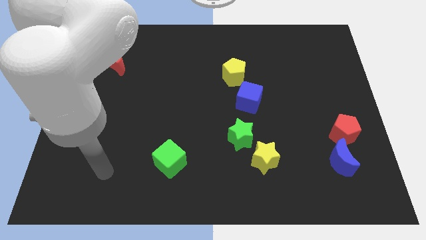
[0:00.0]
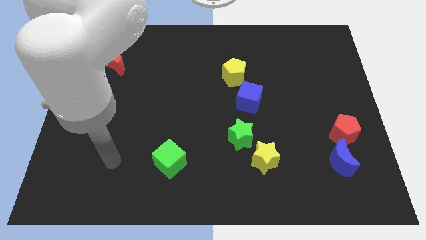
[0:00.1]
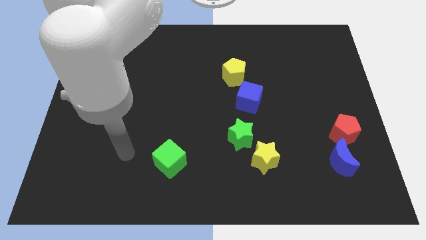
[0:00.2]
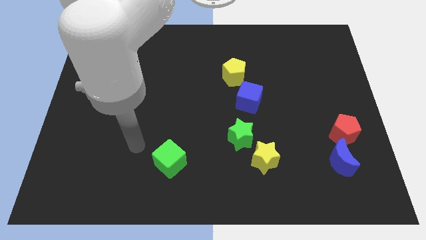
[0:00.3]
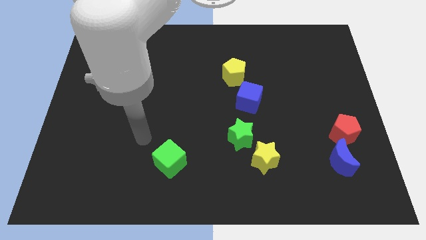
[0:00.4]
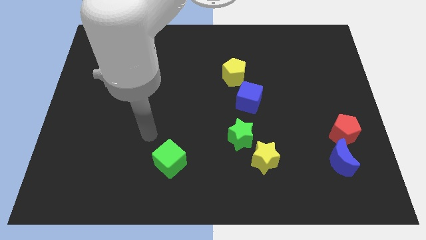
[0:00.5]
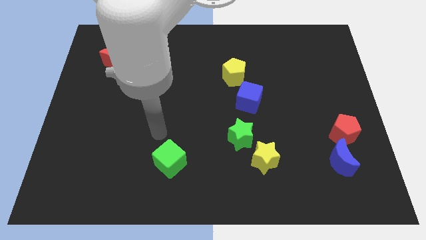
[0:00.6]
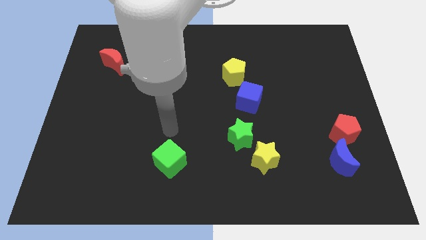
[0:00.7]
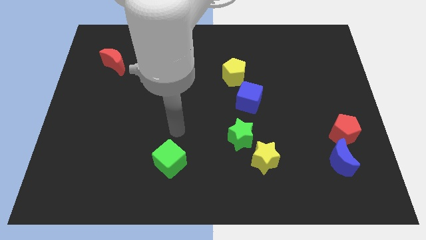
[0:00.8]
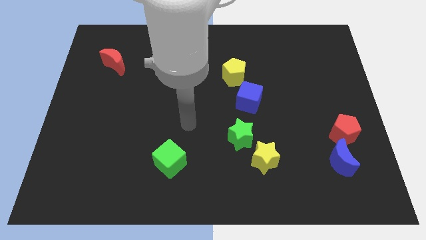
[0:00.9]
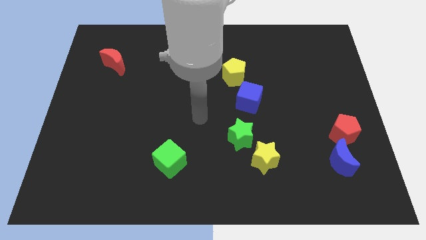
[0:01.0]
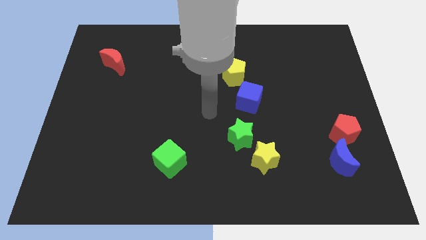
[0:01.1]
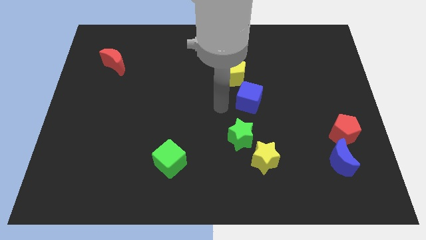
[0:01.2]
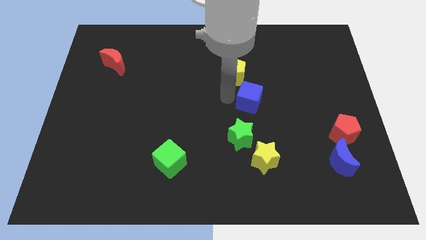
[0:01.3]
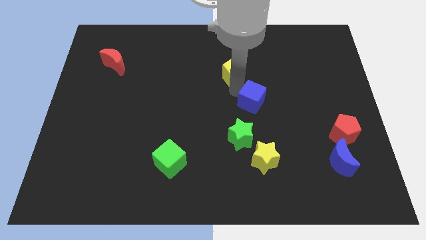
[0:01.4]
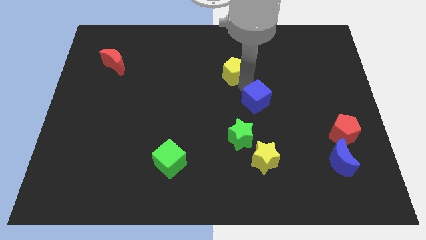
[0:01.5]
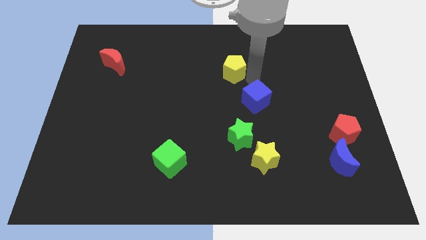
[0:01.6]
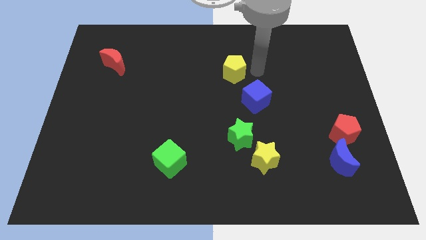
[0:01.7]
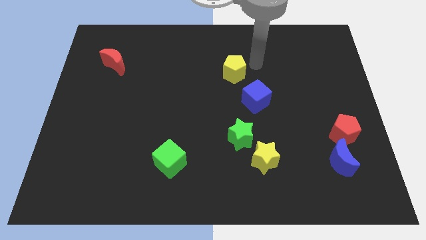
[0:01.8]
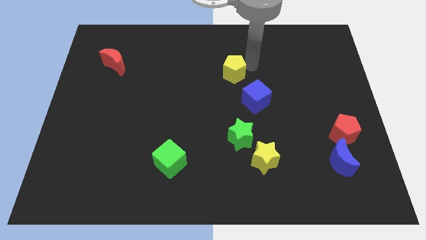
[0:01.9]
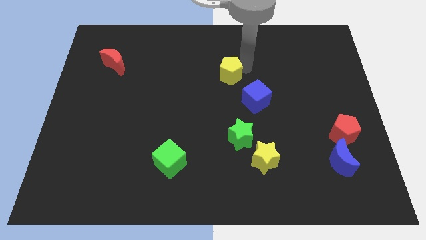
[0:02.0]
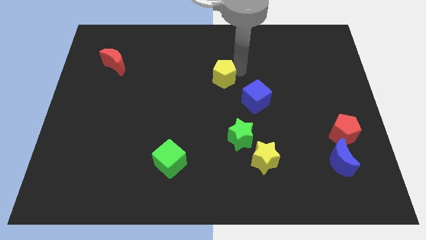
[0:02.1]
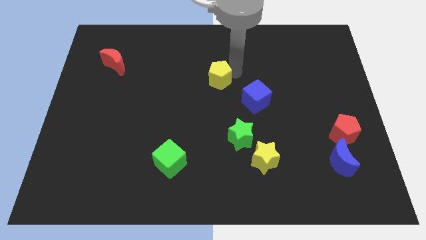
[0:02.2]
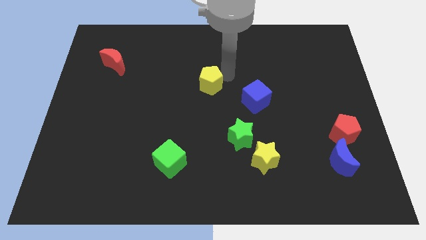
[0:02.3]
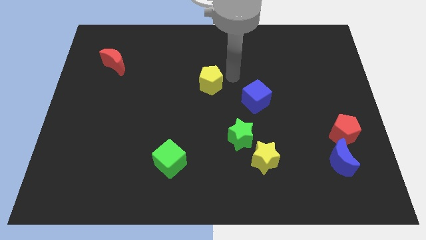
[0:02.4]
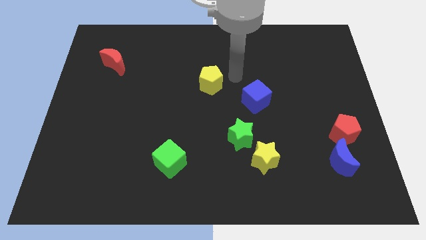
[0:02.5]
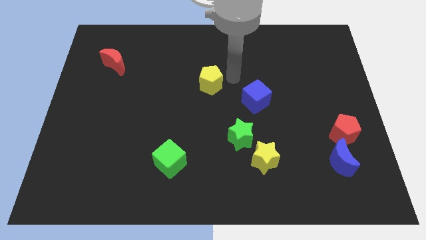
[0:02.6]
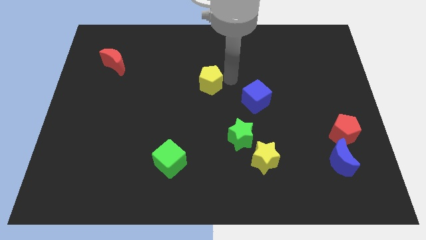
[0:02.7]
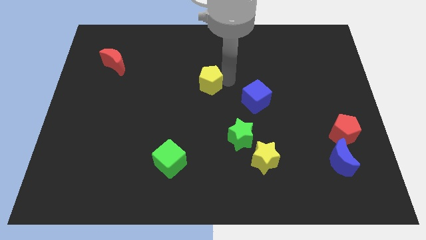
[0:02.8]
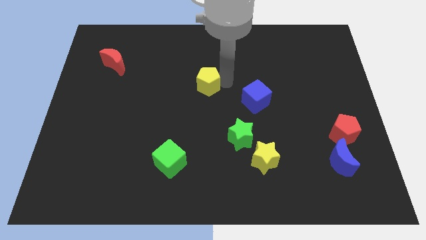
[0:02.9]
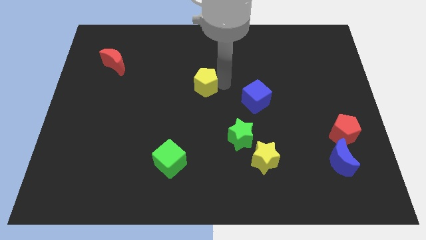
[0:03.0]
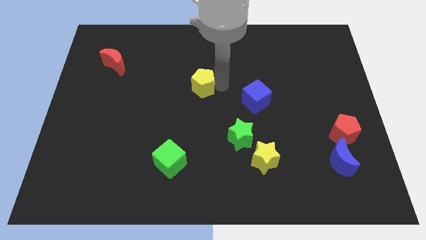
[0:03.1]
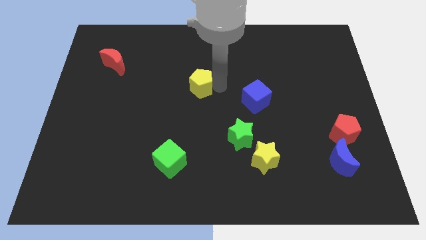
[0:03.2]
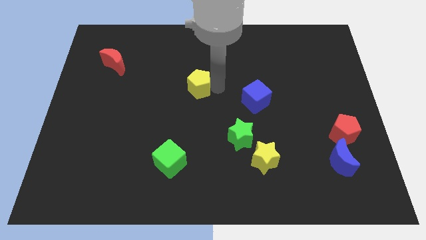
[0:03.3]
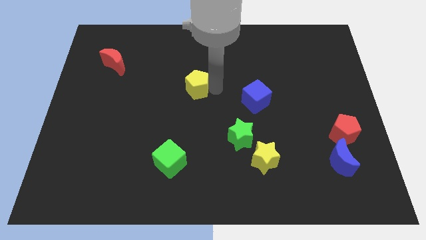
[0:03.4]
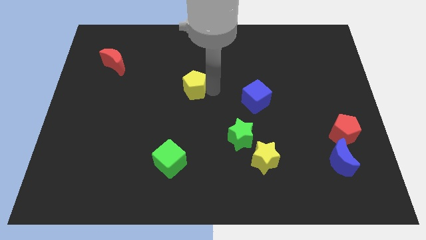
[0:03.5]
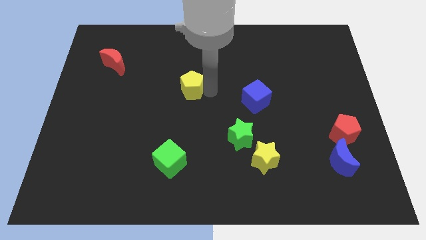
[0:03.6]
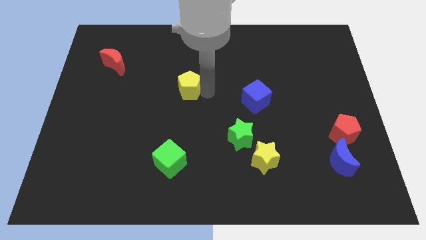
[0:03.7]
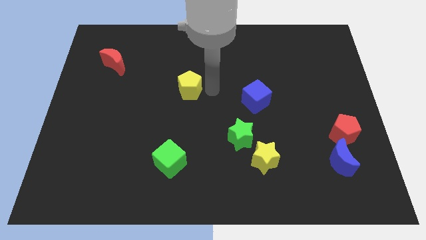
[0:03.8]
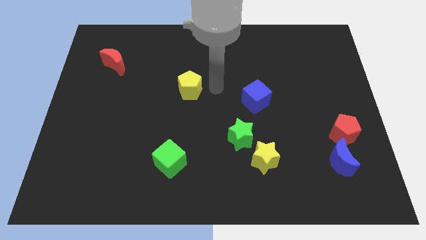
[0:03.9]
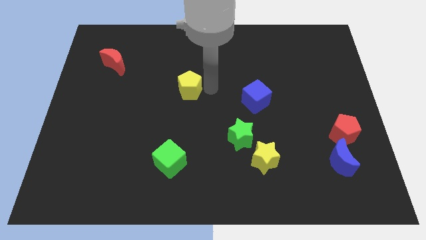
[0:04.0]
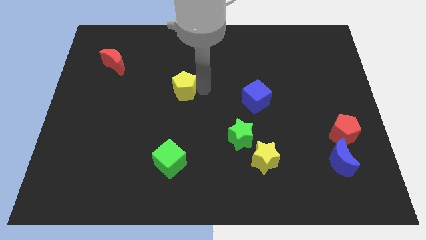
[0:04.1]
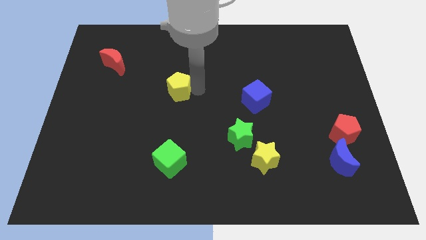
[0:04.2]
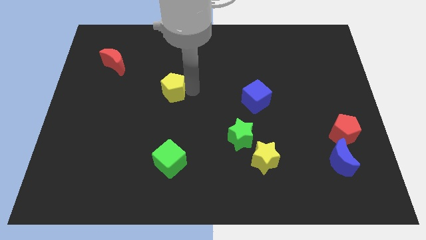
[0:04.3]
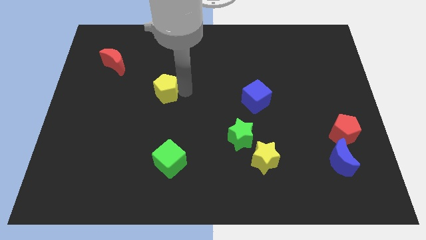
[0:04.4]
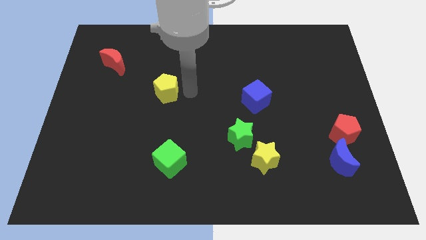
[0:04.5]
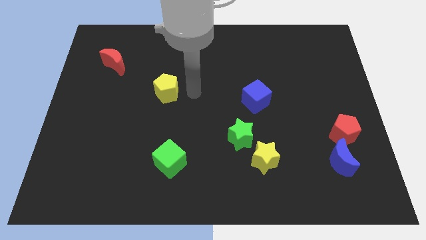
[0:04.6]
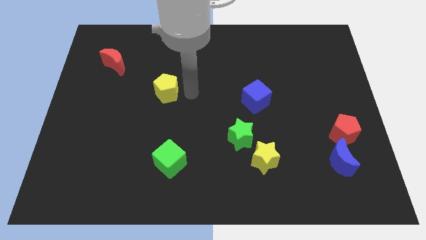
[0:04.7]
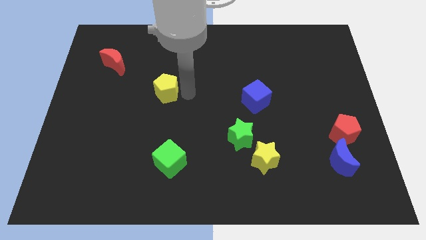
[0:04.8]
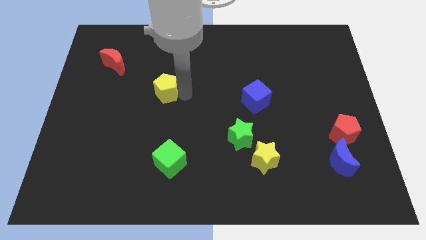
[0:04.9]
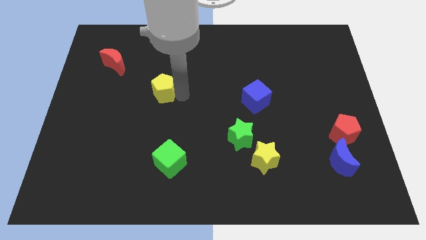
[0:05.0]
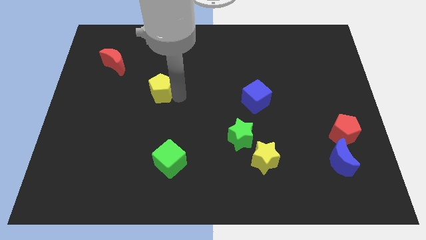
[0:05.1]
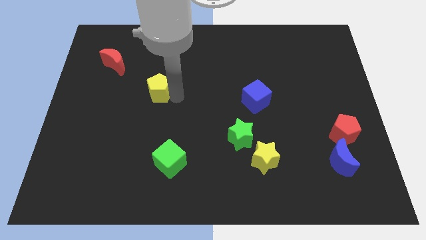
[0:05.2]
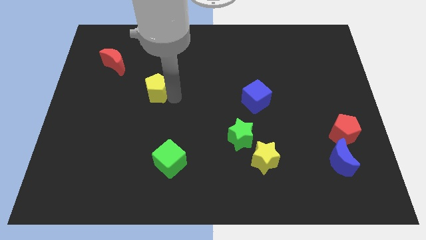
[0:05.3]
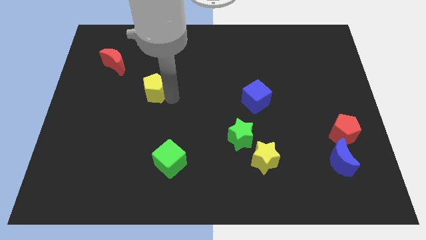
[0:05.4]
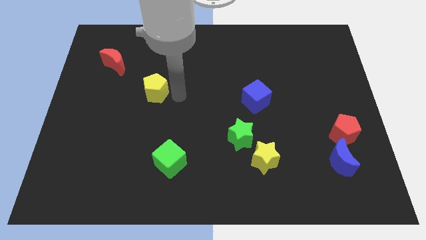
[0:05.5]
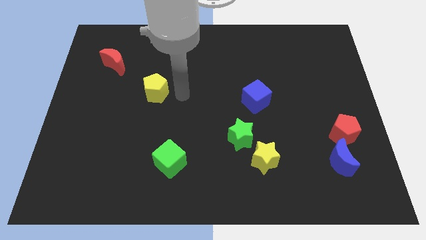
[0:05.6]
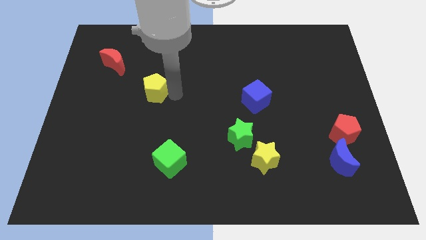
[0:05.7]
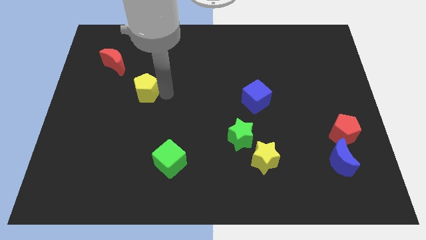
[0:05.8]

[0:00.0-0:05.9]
slide the yellow pentagon to the left

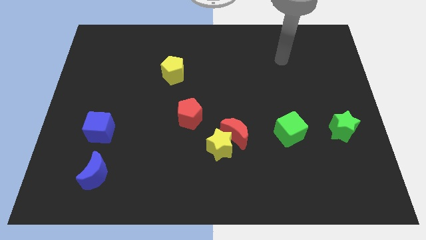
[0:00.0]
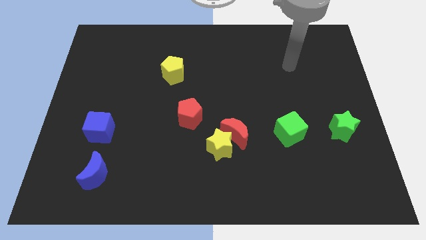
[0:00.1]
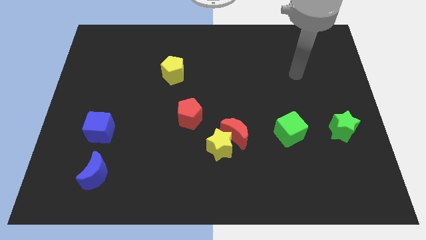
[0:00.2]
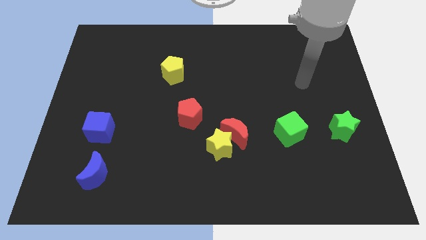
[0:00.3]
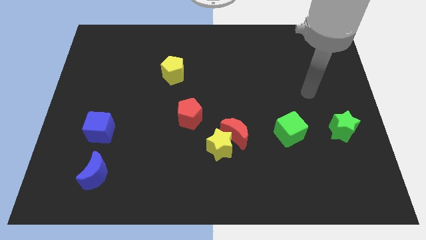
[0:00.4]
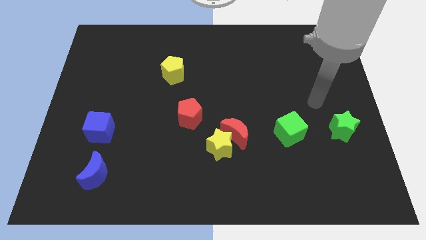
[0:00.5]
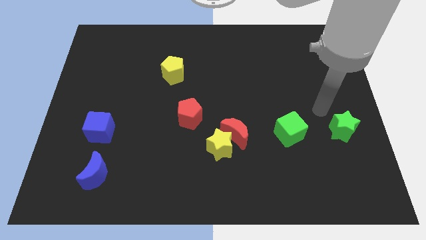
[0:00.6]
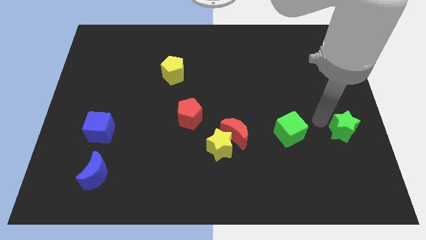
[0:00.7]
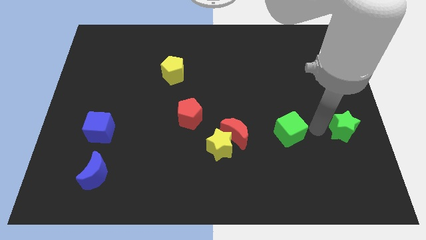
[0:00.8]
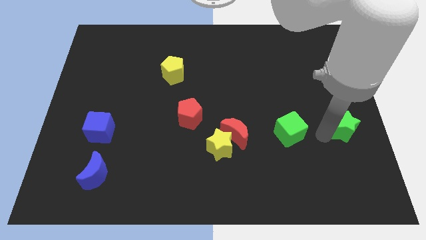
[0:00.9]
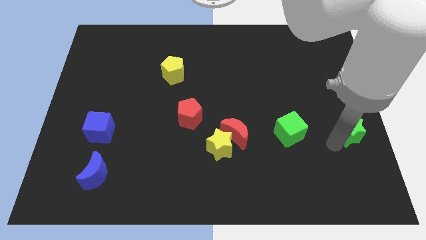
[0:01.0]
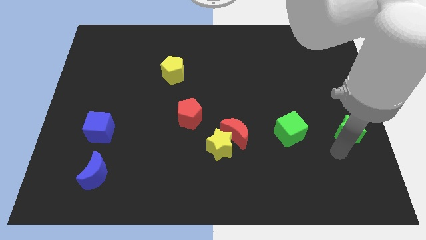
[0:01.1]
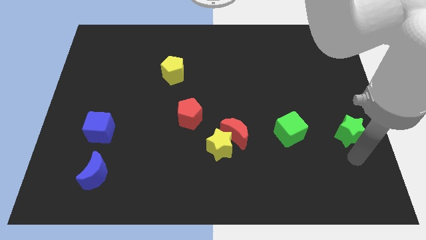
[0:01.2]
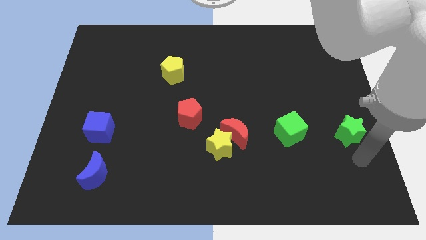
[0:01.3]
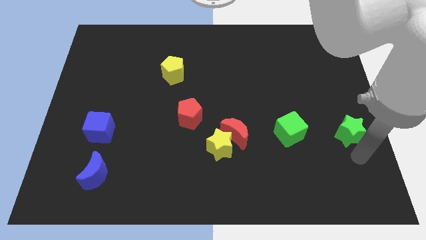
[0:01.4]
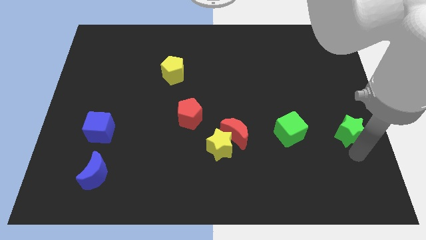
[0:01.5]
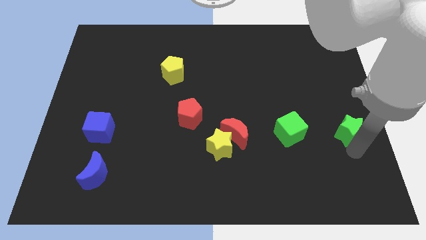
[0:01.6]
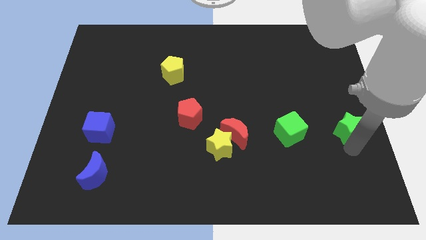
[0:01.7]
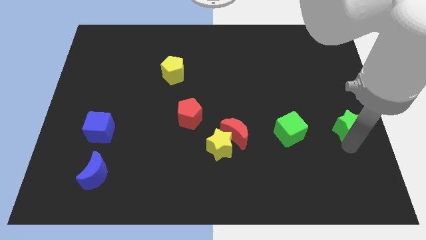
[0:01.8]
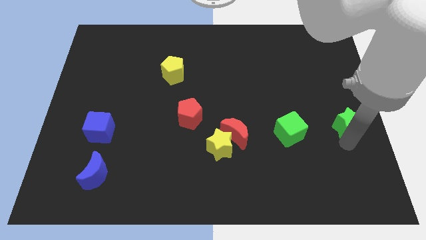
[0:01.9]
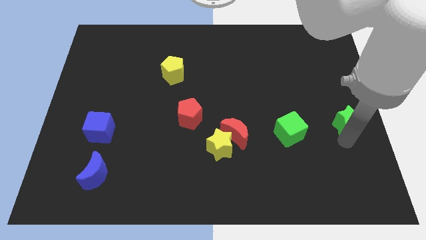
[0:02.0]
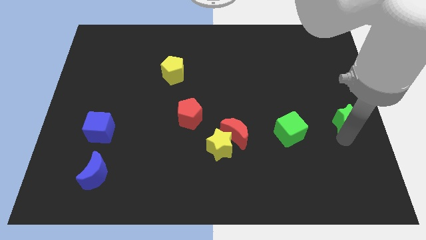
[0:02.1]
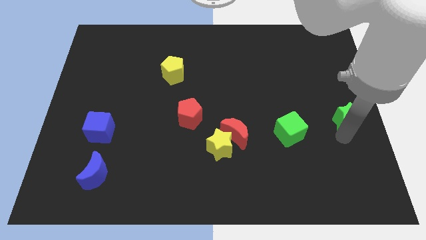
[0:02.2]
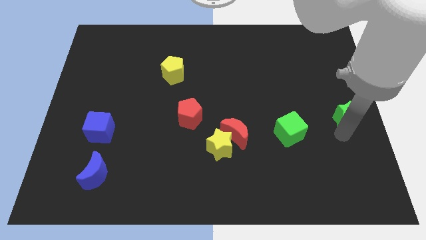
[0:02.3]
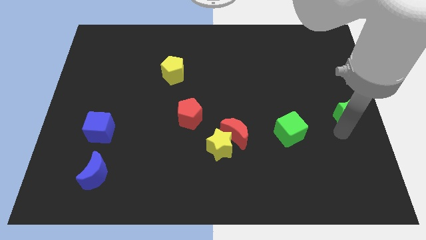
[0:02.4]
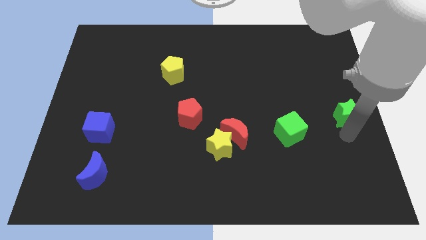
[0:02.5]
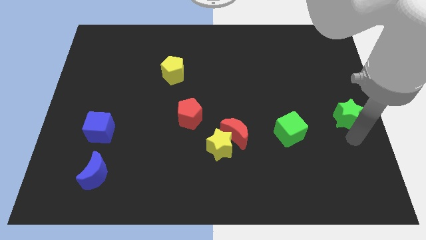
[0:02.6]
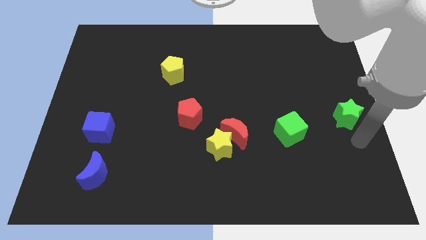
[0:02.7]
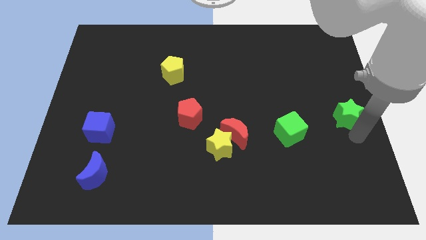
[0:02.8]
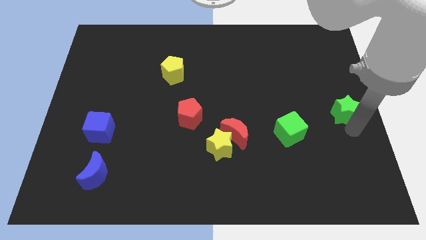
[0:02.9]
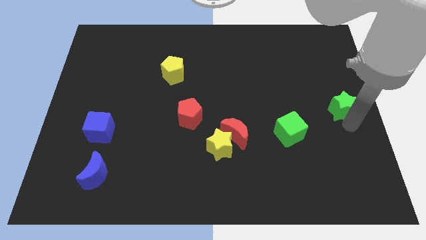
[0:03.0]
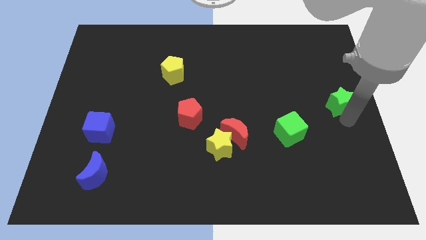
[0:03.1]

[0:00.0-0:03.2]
push the green star somewhat upwards
